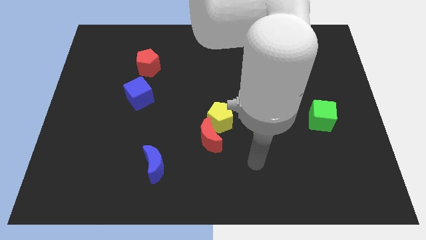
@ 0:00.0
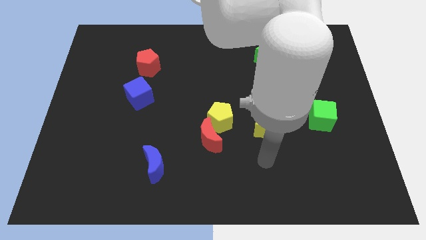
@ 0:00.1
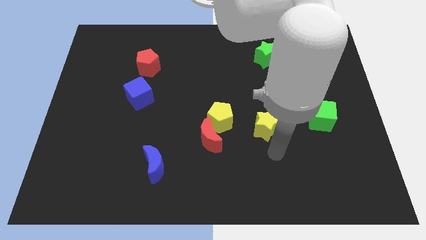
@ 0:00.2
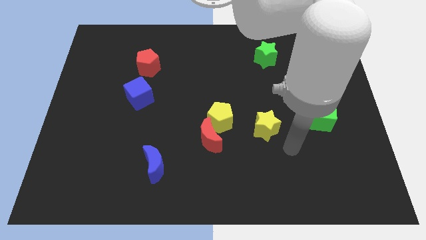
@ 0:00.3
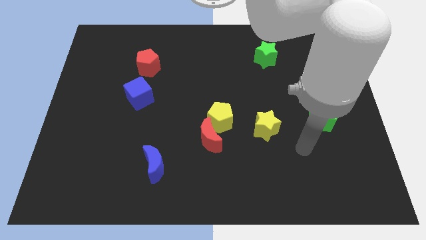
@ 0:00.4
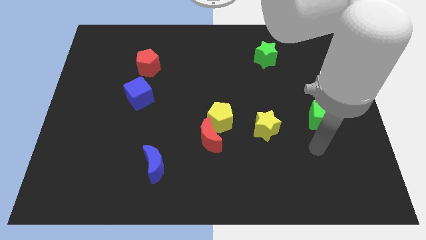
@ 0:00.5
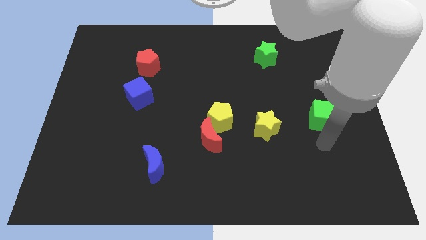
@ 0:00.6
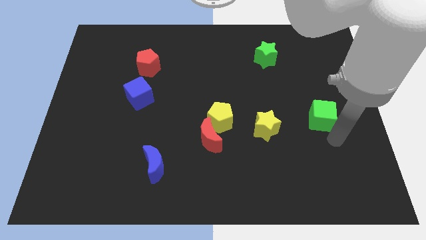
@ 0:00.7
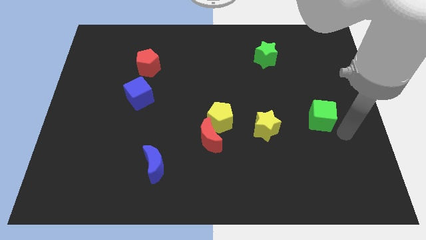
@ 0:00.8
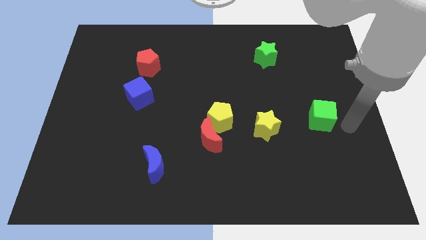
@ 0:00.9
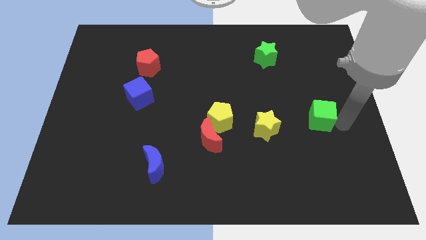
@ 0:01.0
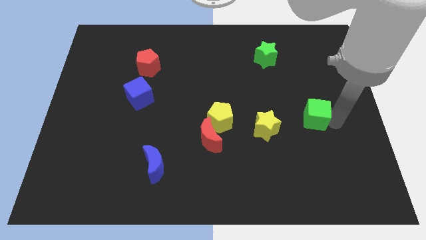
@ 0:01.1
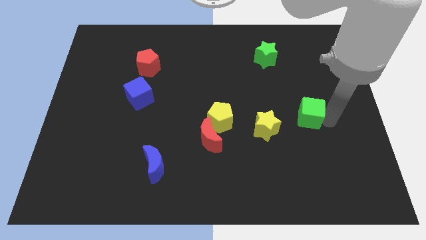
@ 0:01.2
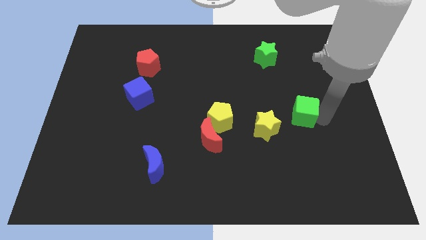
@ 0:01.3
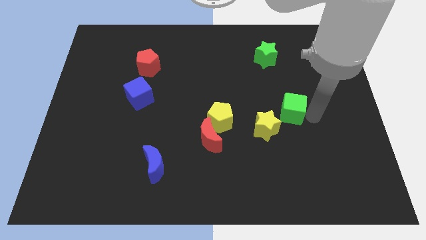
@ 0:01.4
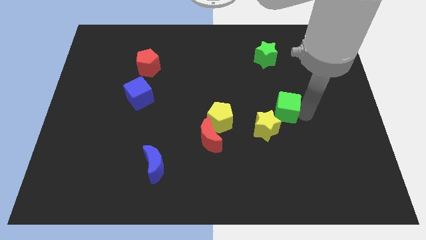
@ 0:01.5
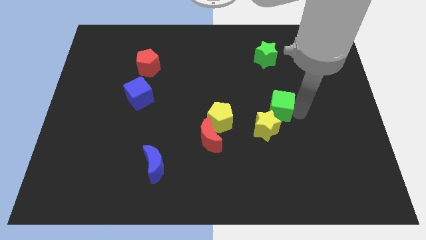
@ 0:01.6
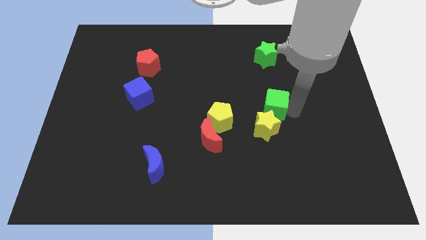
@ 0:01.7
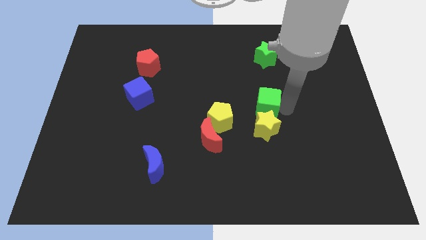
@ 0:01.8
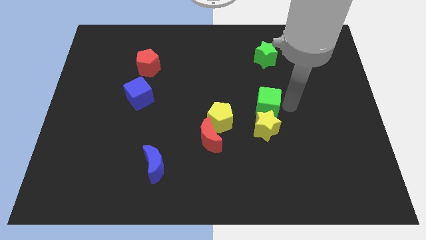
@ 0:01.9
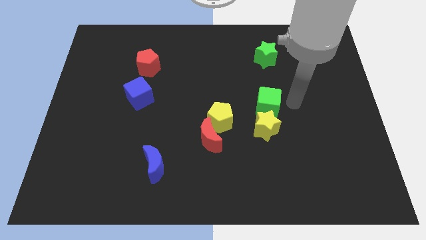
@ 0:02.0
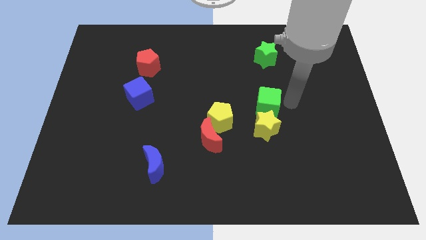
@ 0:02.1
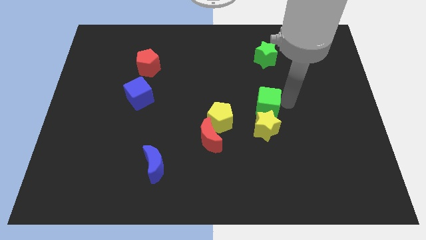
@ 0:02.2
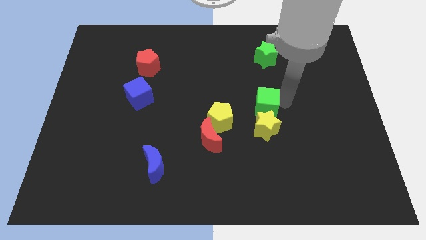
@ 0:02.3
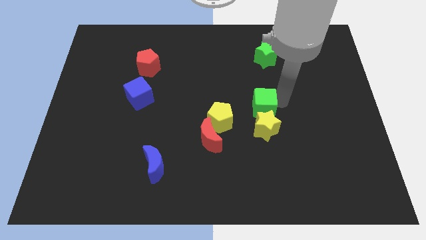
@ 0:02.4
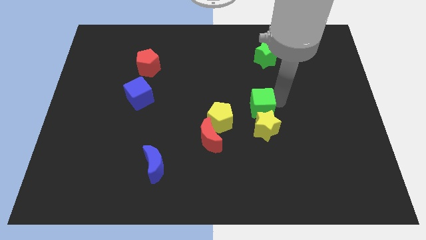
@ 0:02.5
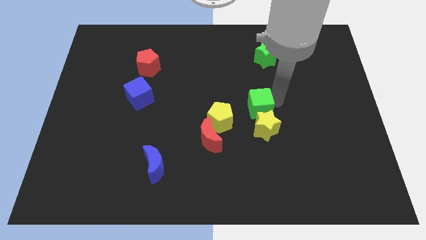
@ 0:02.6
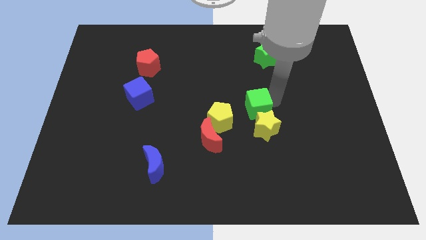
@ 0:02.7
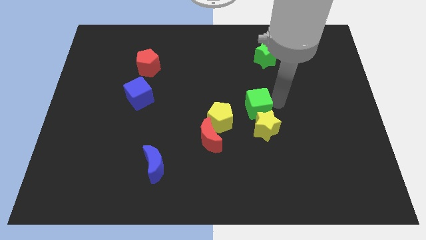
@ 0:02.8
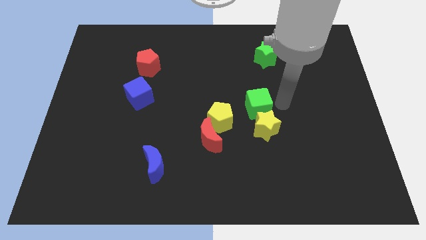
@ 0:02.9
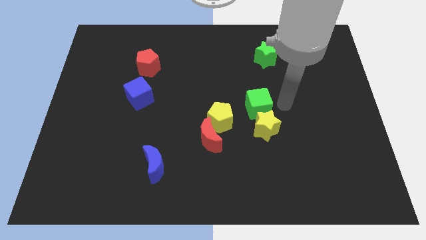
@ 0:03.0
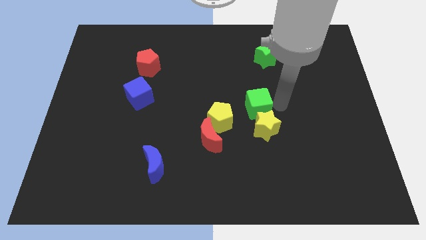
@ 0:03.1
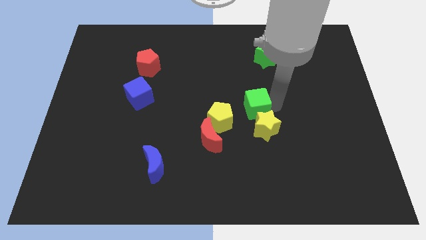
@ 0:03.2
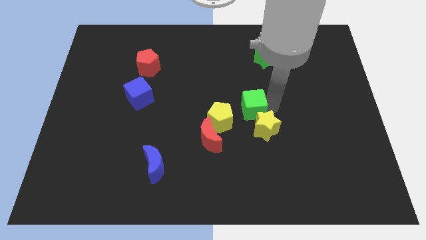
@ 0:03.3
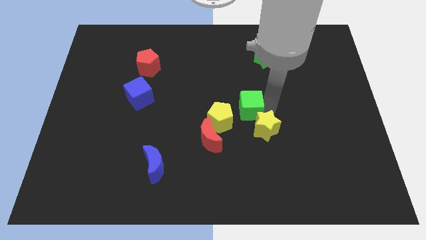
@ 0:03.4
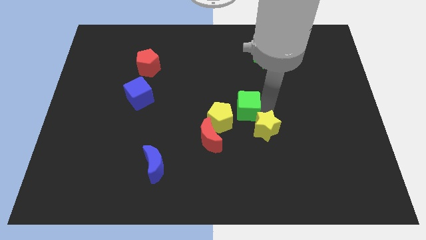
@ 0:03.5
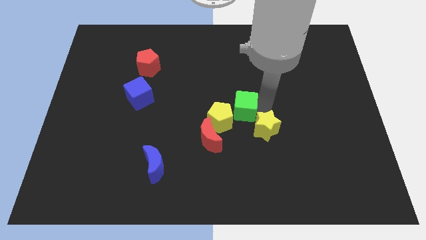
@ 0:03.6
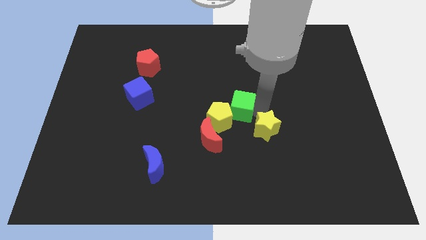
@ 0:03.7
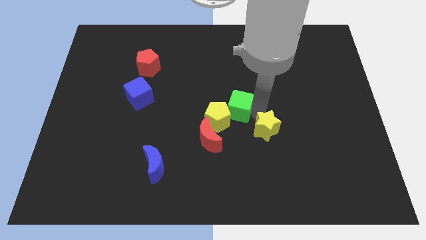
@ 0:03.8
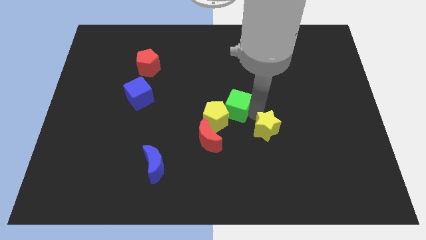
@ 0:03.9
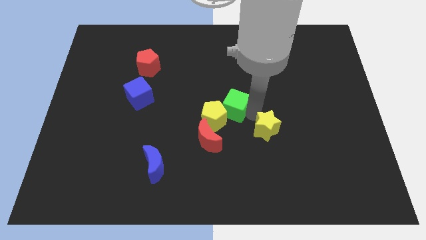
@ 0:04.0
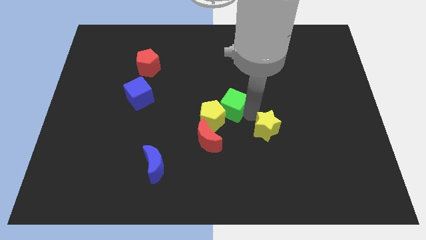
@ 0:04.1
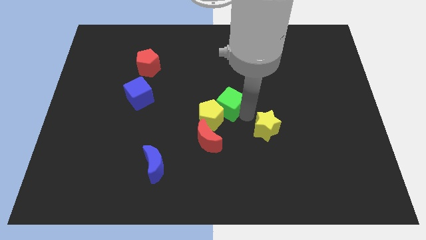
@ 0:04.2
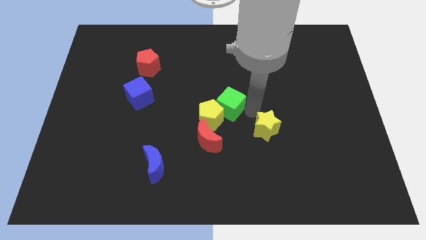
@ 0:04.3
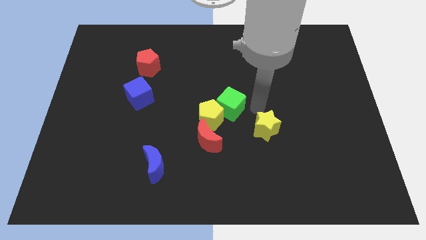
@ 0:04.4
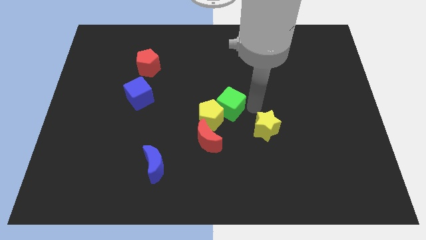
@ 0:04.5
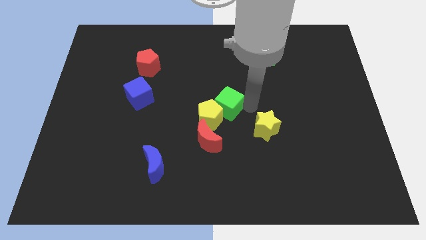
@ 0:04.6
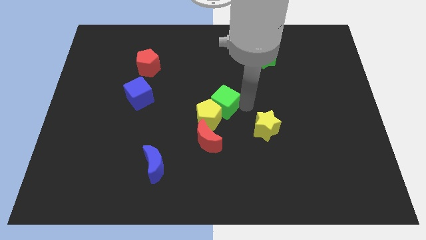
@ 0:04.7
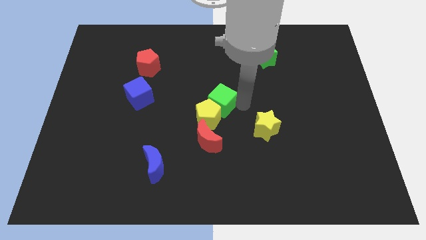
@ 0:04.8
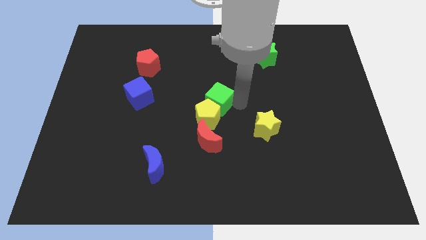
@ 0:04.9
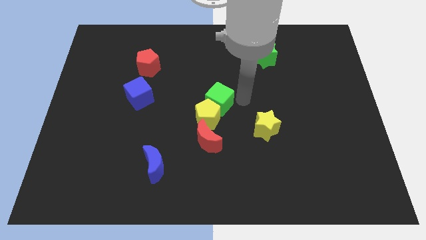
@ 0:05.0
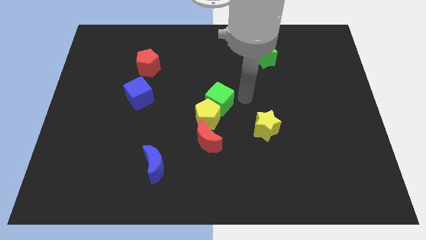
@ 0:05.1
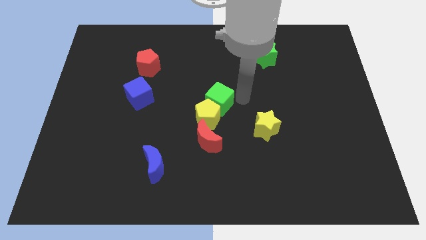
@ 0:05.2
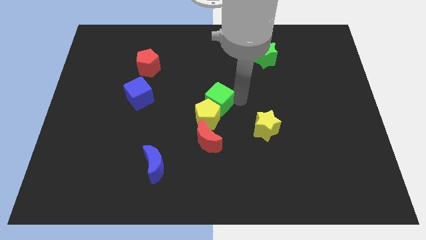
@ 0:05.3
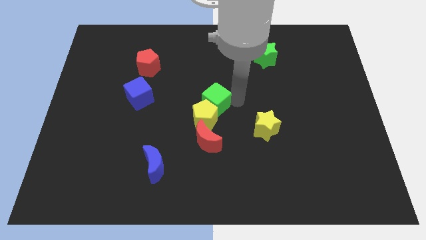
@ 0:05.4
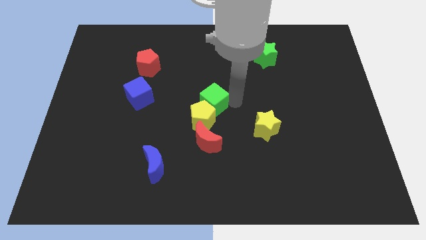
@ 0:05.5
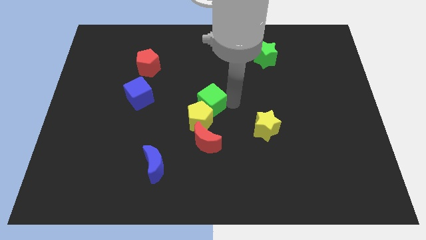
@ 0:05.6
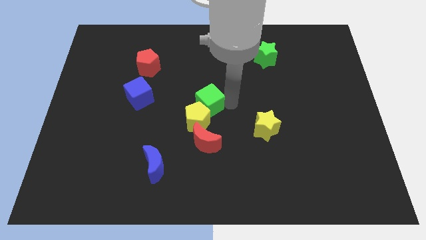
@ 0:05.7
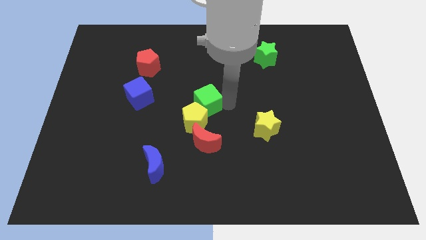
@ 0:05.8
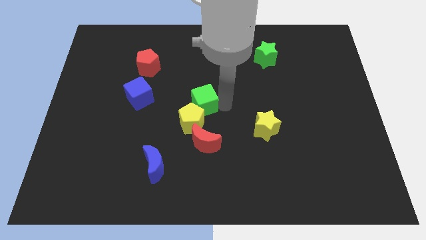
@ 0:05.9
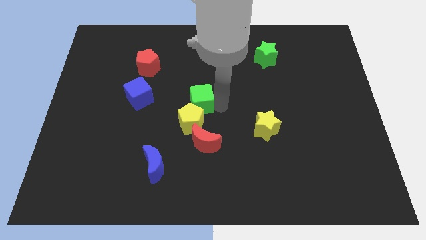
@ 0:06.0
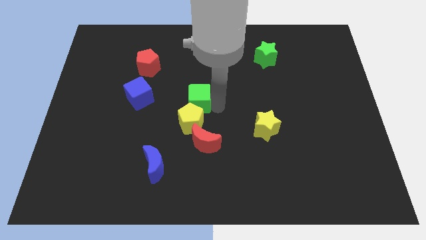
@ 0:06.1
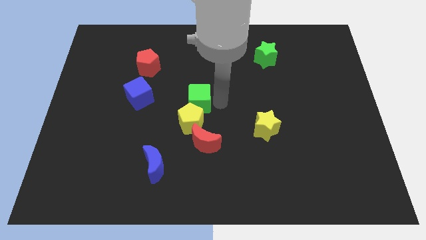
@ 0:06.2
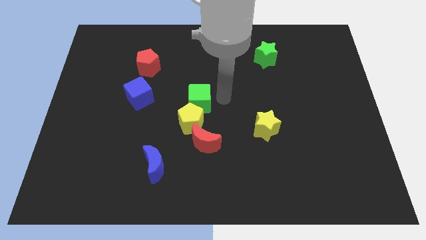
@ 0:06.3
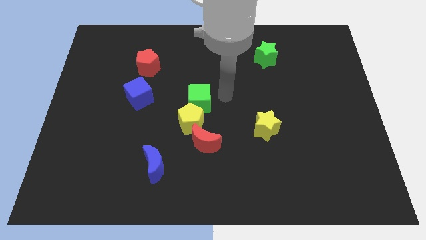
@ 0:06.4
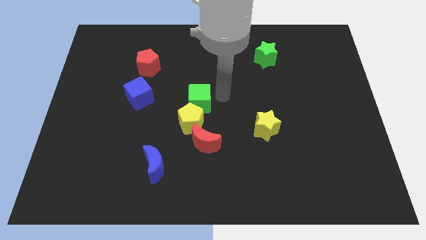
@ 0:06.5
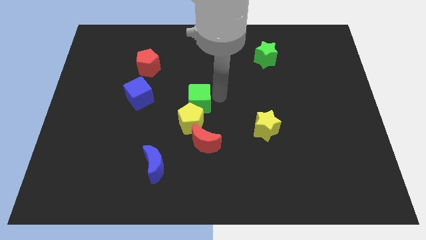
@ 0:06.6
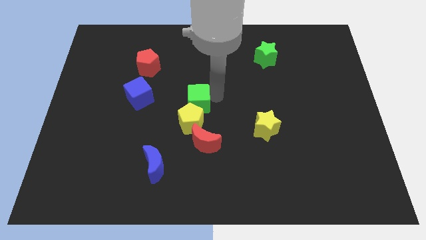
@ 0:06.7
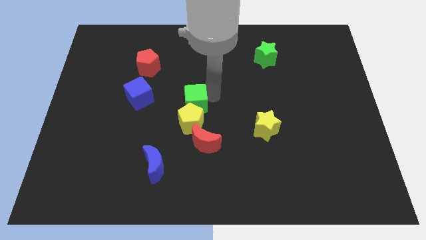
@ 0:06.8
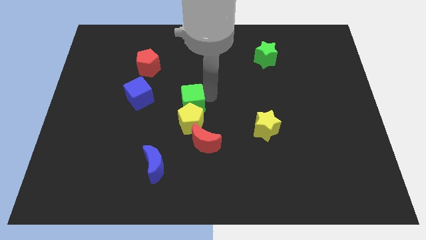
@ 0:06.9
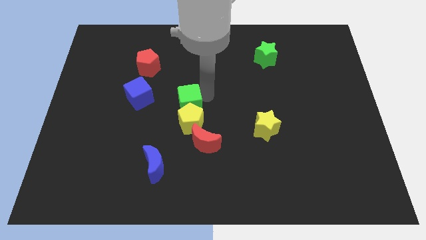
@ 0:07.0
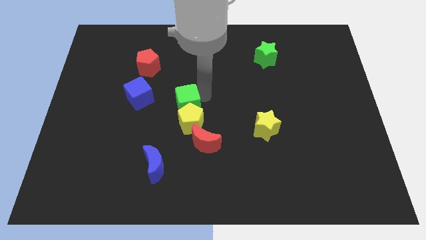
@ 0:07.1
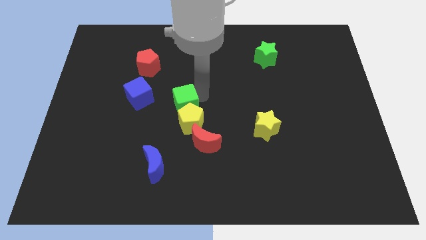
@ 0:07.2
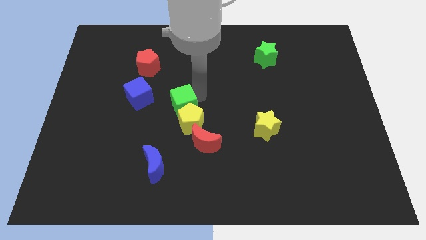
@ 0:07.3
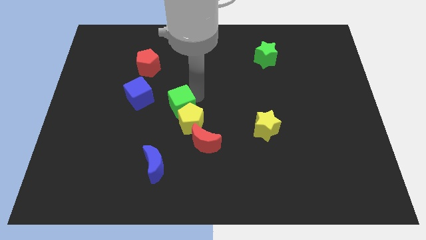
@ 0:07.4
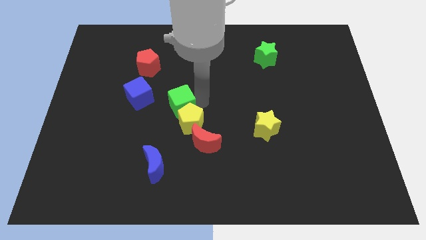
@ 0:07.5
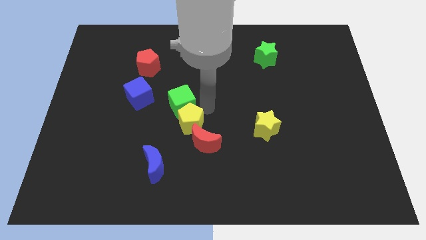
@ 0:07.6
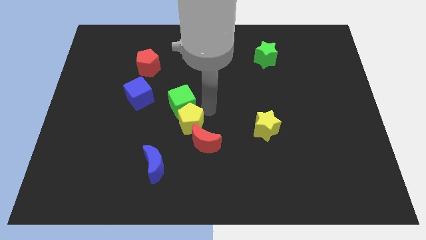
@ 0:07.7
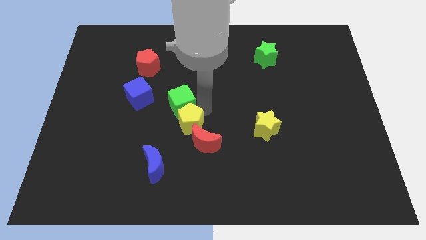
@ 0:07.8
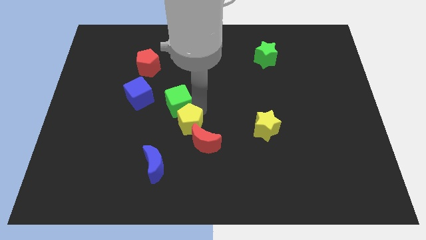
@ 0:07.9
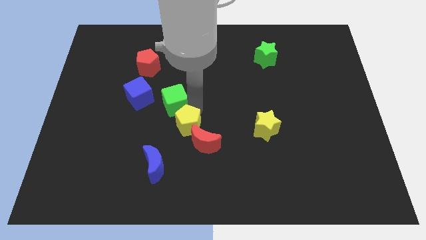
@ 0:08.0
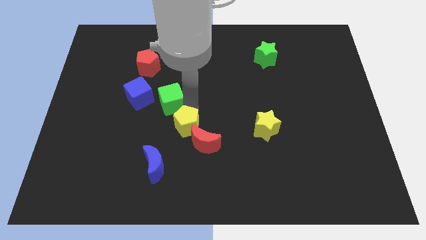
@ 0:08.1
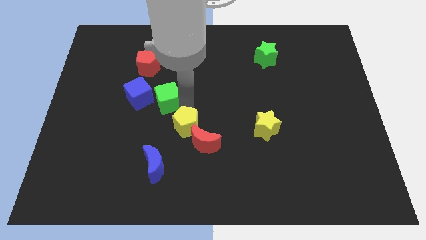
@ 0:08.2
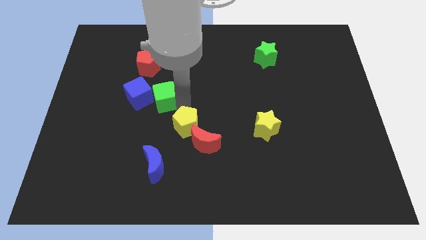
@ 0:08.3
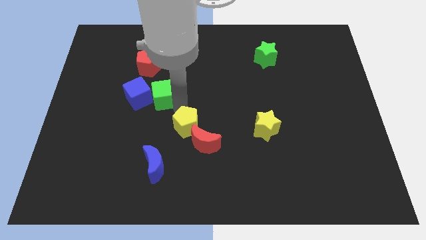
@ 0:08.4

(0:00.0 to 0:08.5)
push the green cube towards the blue cube
